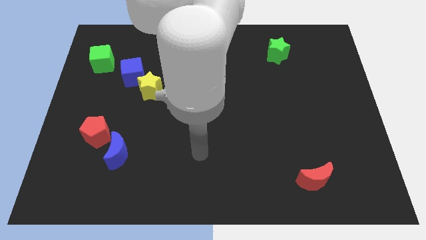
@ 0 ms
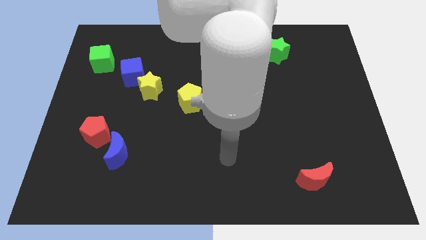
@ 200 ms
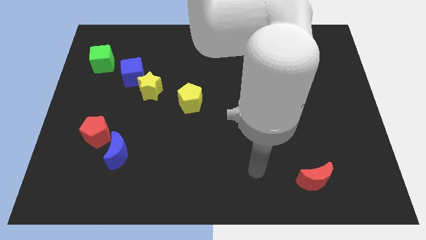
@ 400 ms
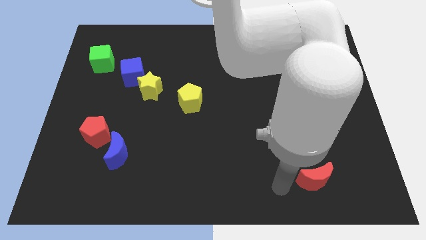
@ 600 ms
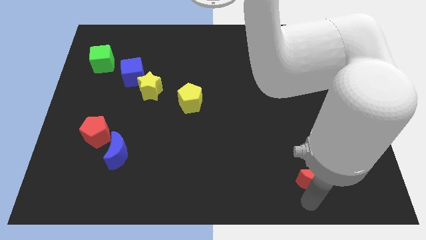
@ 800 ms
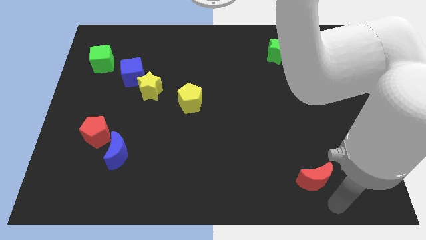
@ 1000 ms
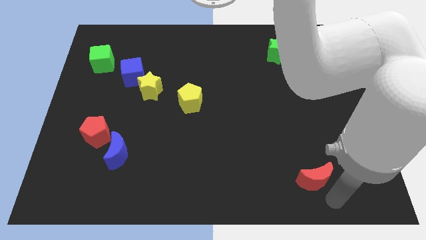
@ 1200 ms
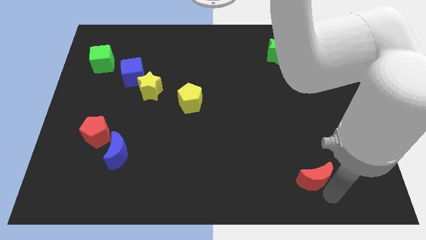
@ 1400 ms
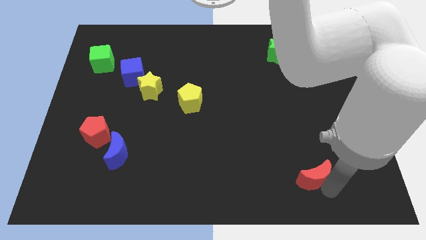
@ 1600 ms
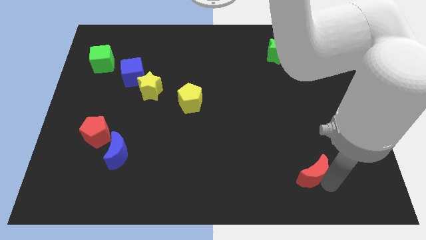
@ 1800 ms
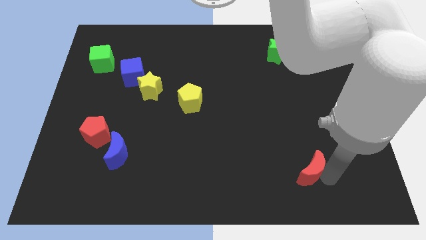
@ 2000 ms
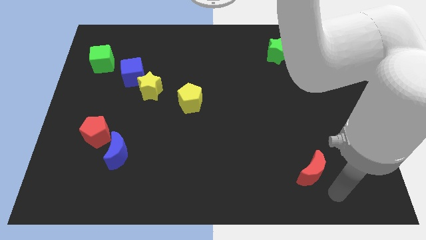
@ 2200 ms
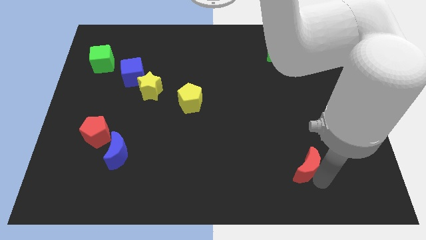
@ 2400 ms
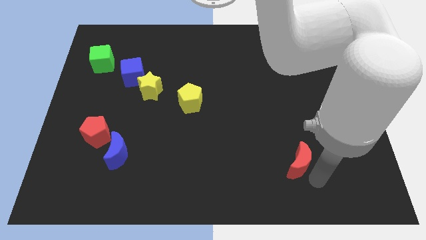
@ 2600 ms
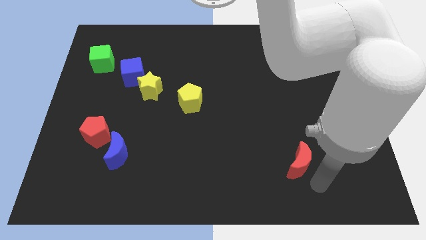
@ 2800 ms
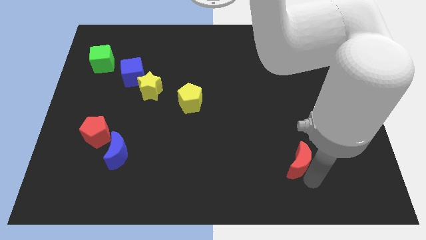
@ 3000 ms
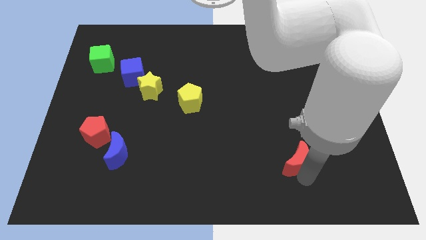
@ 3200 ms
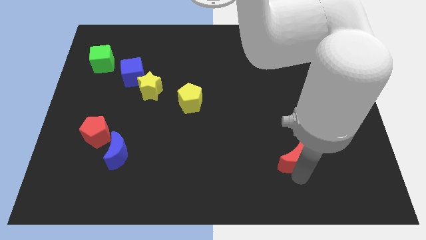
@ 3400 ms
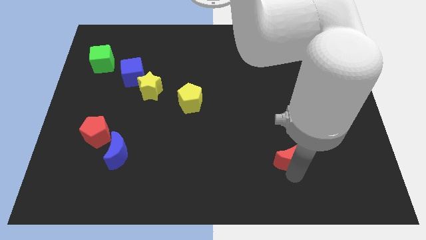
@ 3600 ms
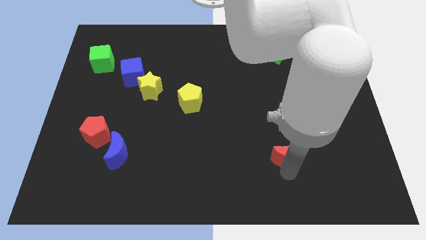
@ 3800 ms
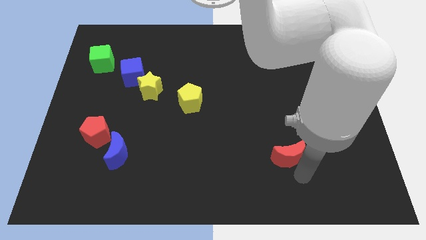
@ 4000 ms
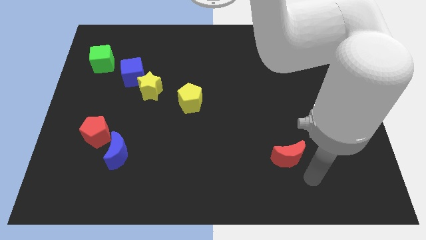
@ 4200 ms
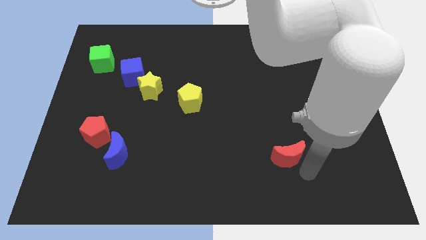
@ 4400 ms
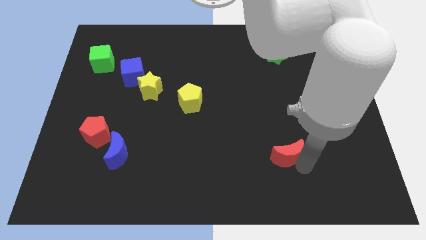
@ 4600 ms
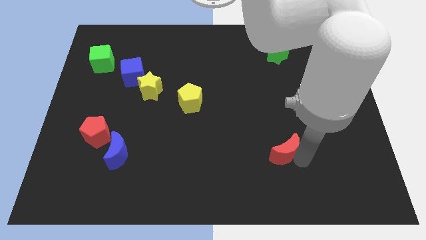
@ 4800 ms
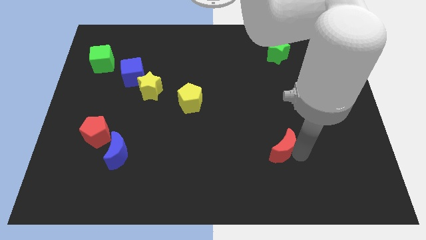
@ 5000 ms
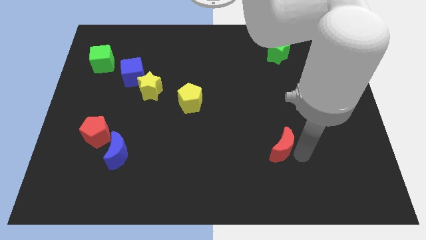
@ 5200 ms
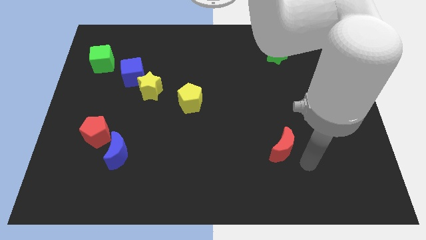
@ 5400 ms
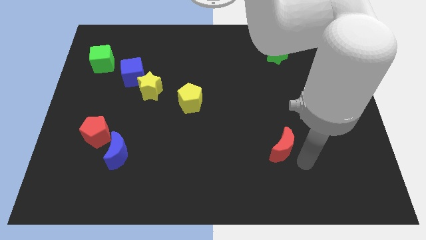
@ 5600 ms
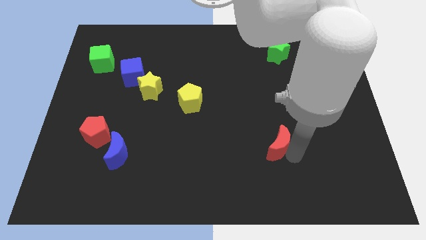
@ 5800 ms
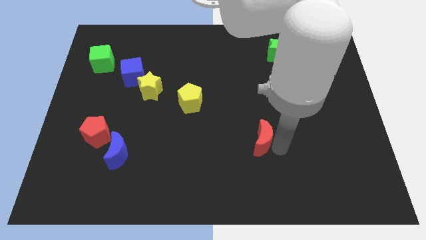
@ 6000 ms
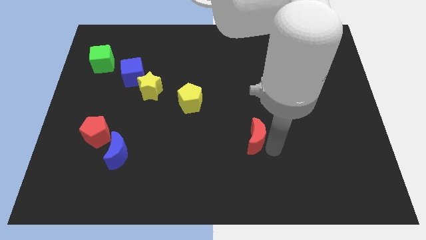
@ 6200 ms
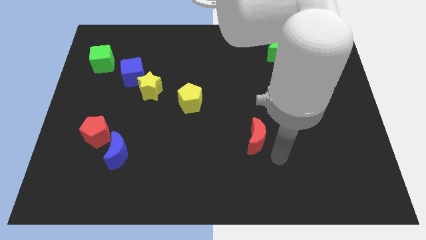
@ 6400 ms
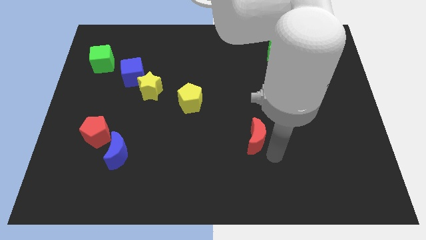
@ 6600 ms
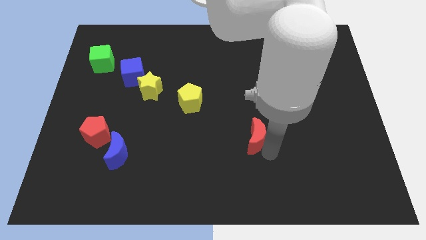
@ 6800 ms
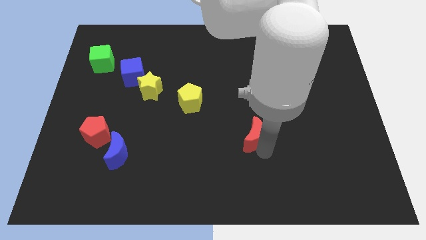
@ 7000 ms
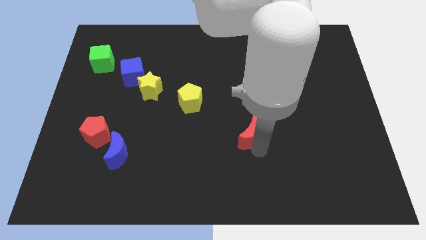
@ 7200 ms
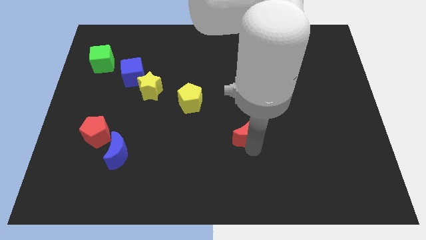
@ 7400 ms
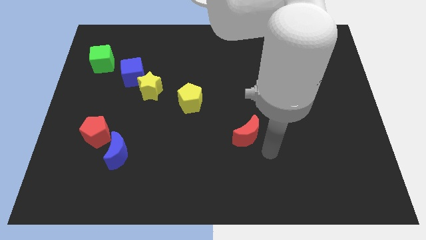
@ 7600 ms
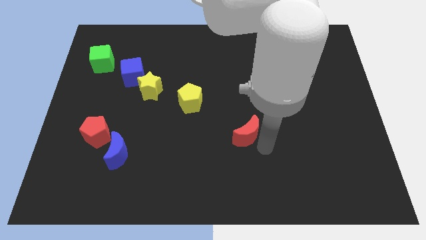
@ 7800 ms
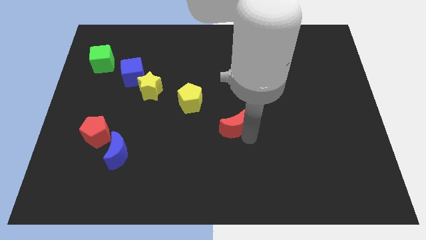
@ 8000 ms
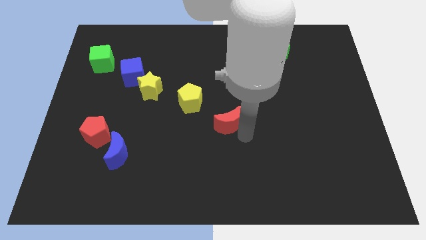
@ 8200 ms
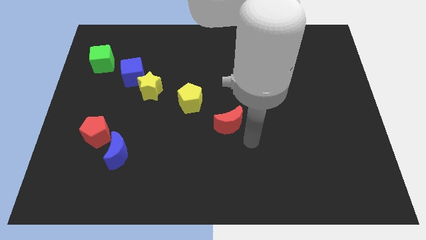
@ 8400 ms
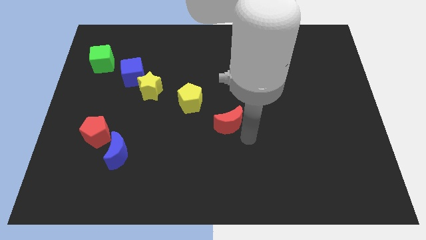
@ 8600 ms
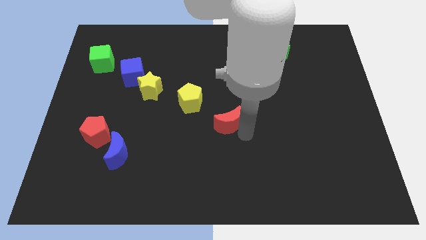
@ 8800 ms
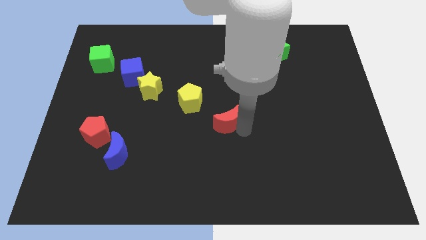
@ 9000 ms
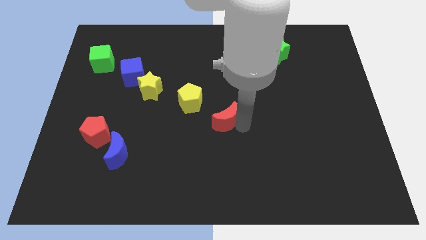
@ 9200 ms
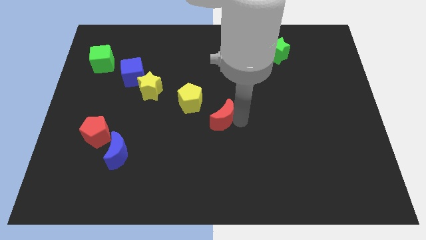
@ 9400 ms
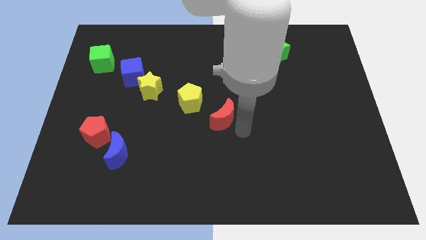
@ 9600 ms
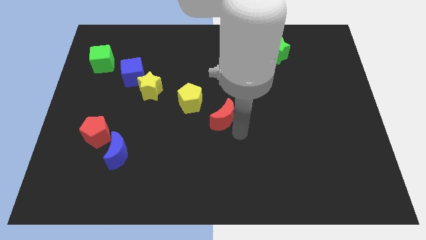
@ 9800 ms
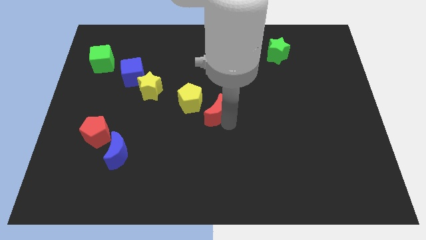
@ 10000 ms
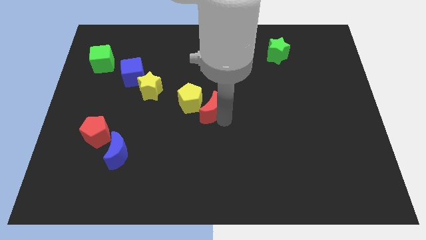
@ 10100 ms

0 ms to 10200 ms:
put the red moon to the yellow pentagon

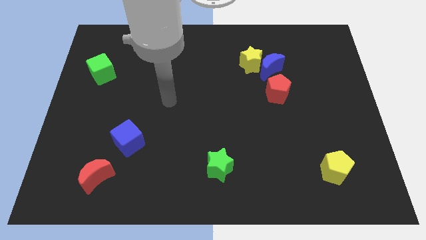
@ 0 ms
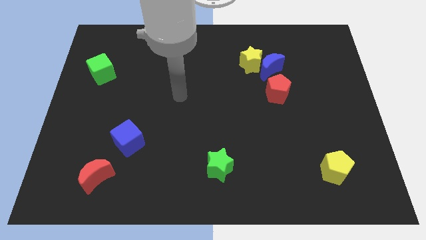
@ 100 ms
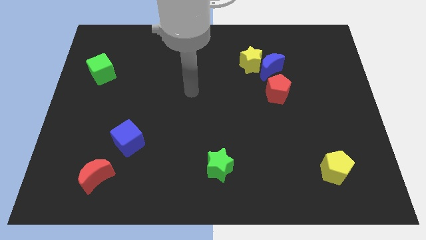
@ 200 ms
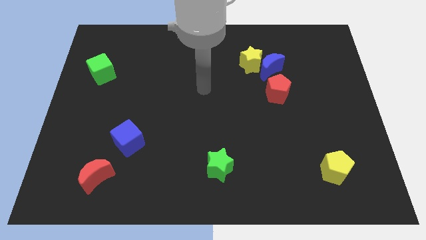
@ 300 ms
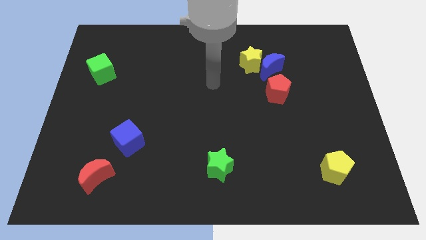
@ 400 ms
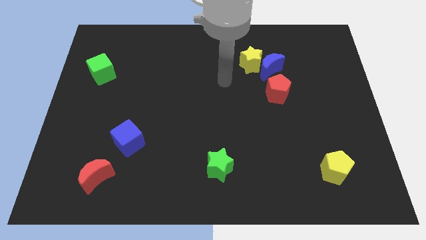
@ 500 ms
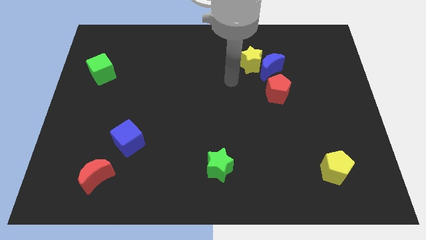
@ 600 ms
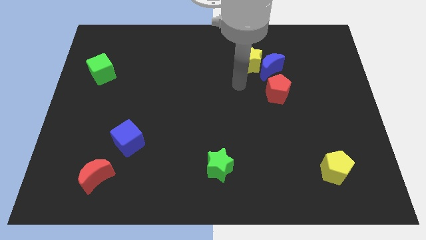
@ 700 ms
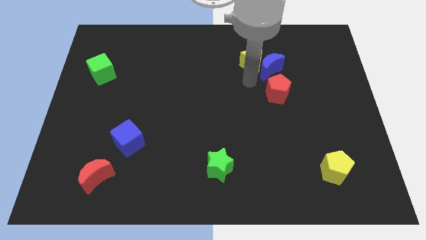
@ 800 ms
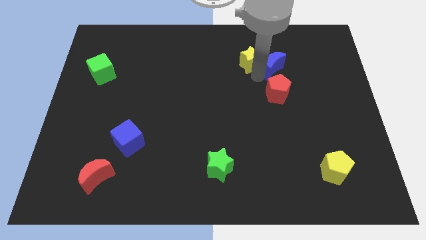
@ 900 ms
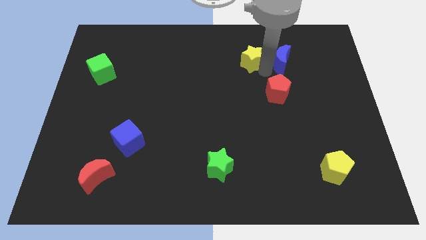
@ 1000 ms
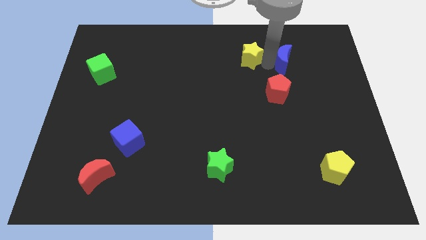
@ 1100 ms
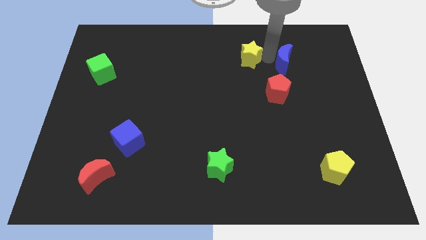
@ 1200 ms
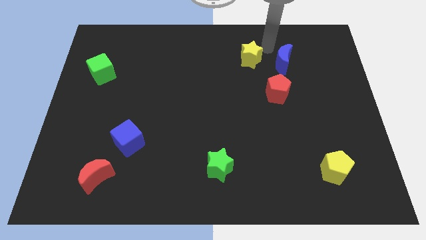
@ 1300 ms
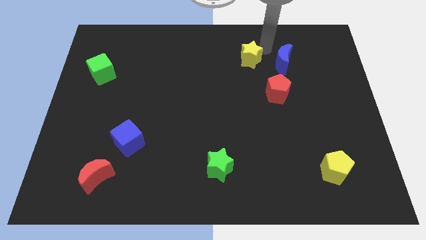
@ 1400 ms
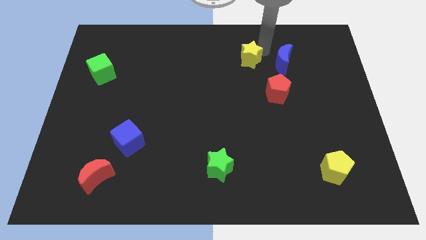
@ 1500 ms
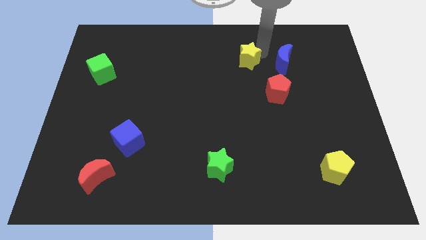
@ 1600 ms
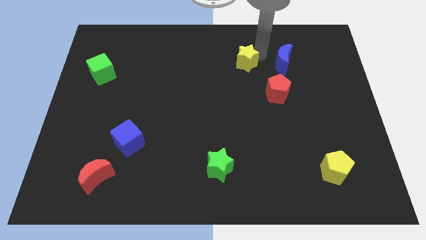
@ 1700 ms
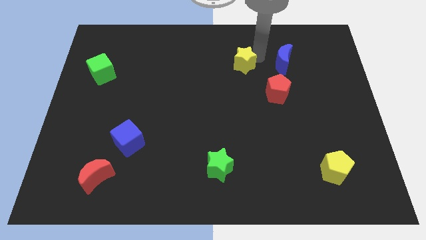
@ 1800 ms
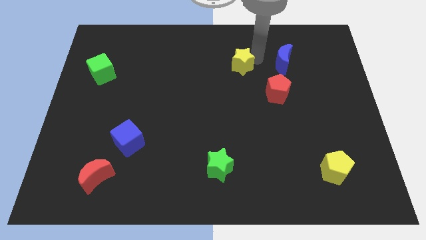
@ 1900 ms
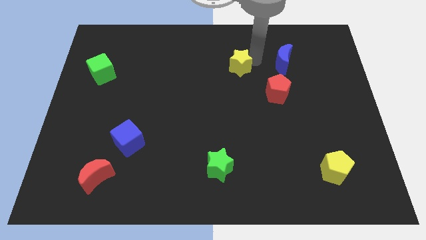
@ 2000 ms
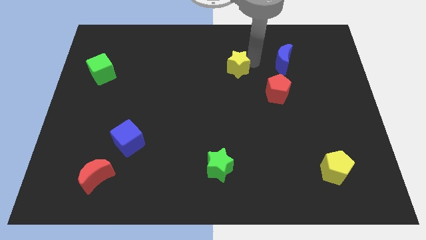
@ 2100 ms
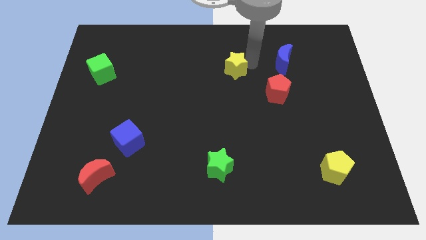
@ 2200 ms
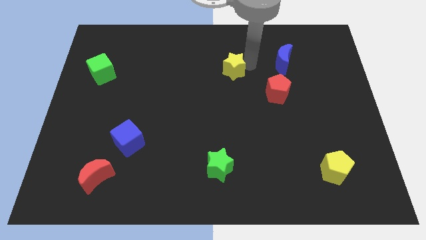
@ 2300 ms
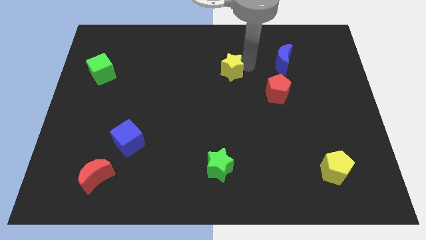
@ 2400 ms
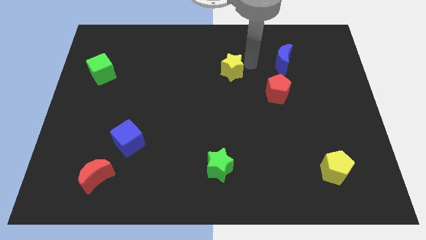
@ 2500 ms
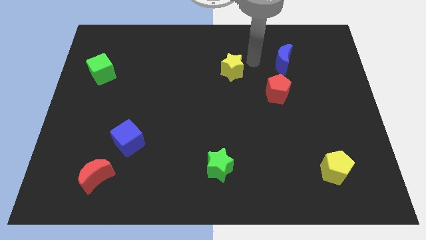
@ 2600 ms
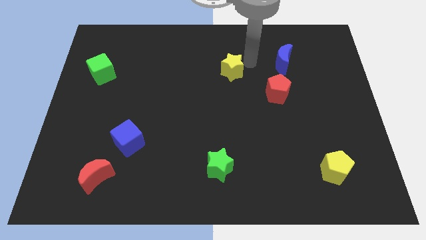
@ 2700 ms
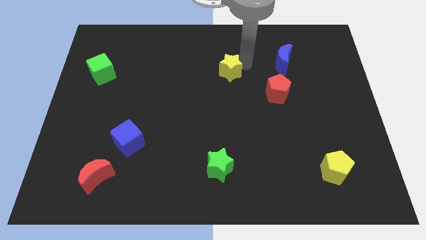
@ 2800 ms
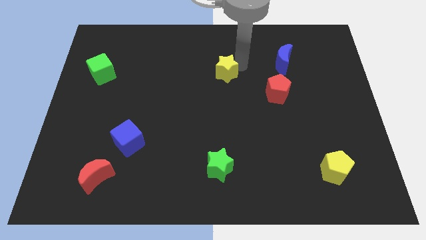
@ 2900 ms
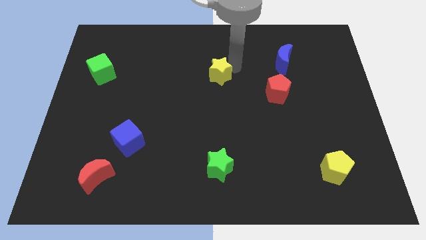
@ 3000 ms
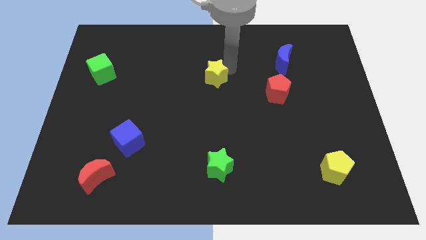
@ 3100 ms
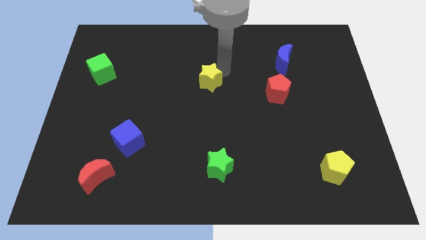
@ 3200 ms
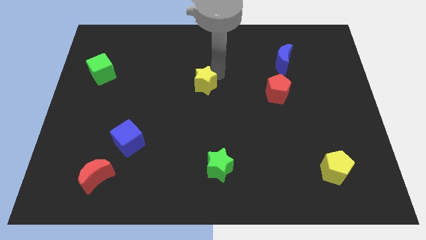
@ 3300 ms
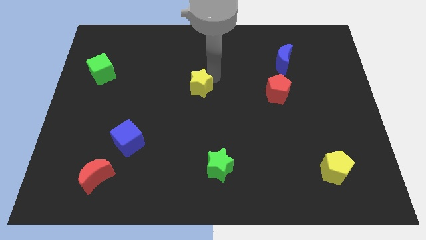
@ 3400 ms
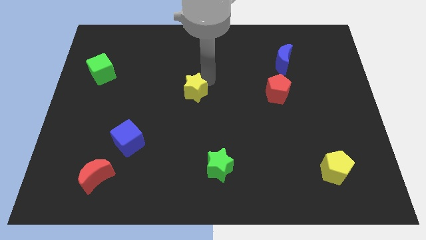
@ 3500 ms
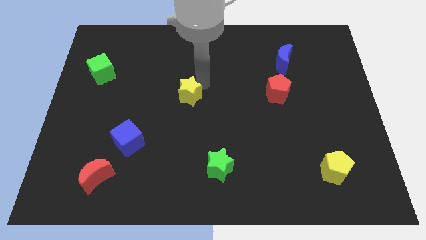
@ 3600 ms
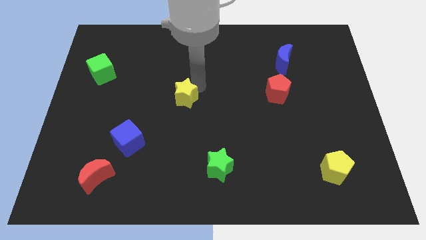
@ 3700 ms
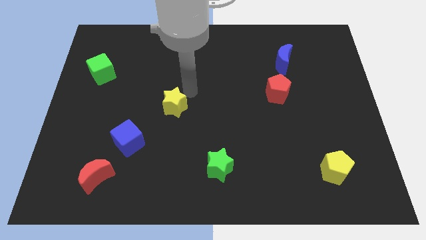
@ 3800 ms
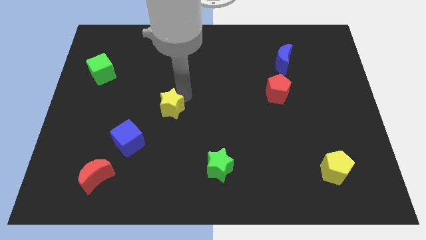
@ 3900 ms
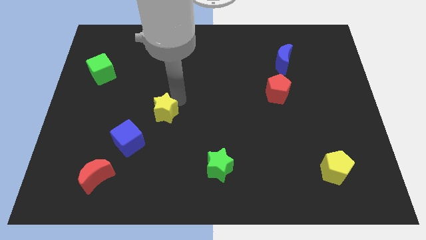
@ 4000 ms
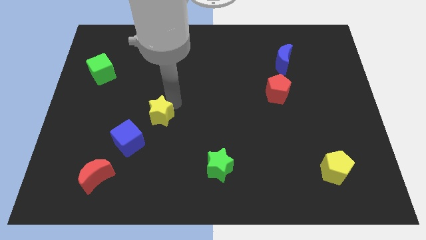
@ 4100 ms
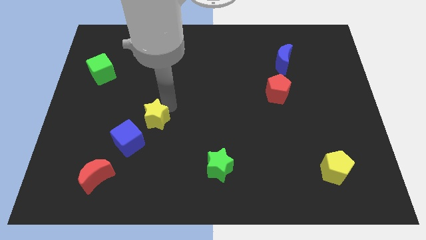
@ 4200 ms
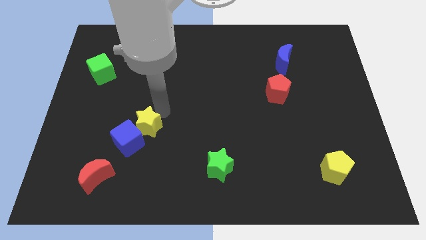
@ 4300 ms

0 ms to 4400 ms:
put the yellow star to the blue cube
